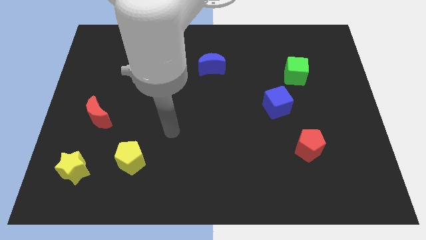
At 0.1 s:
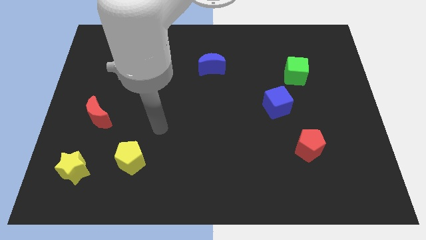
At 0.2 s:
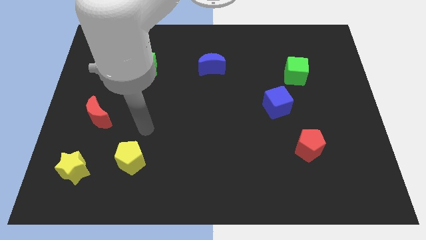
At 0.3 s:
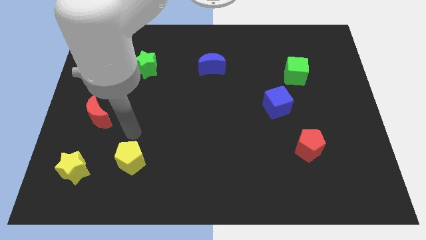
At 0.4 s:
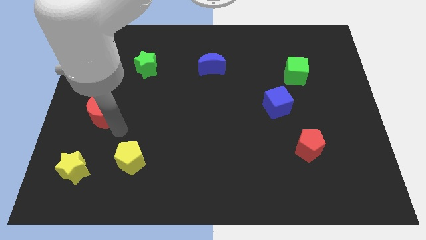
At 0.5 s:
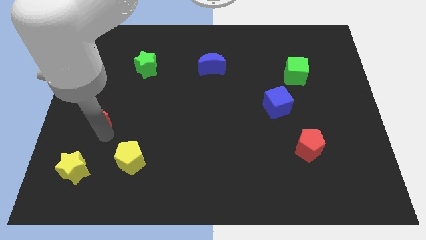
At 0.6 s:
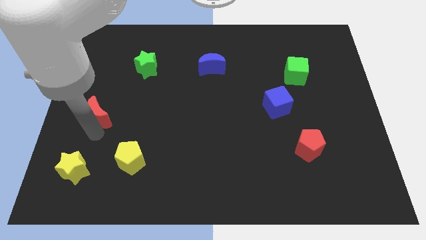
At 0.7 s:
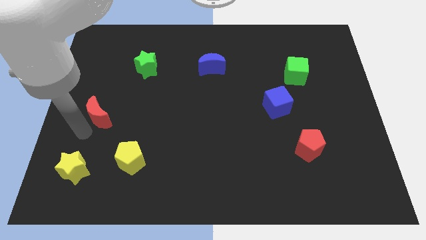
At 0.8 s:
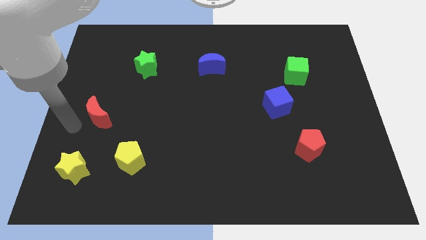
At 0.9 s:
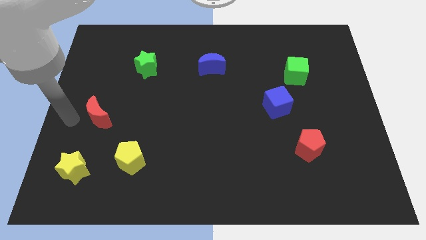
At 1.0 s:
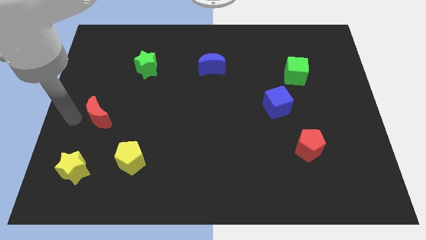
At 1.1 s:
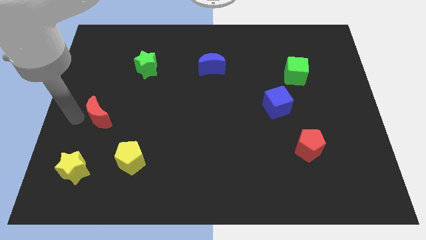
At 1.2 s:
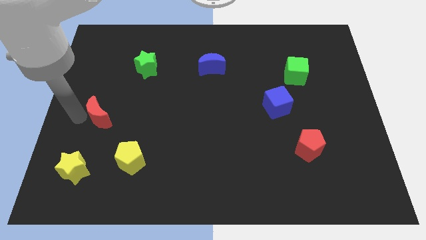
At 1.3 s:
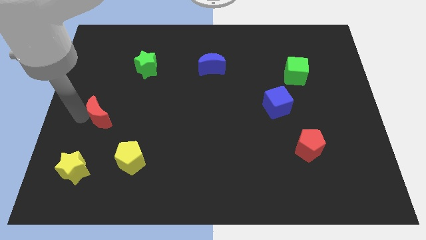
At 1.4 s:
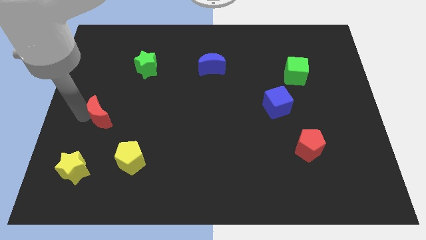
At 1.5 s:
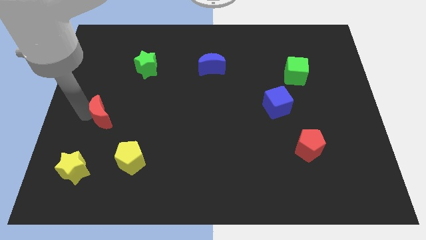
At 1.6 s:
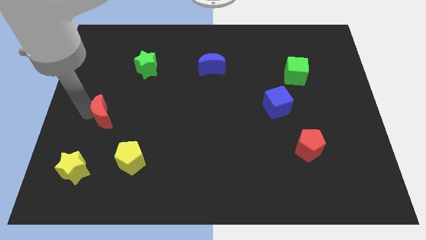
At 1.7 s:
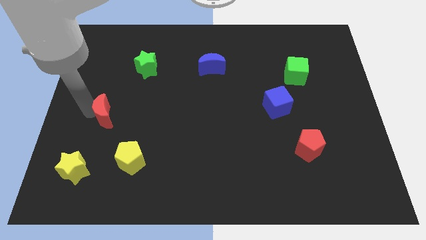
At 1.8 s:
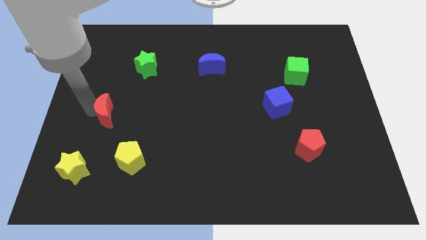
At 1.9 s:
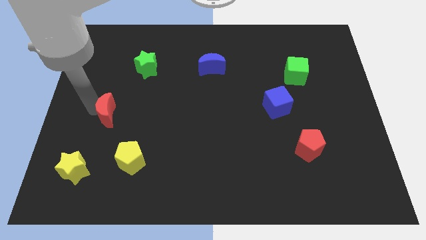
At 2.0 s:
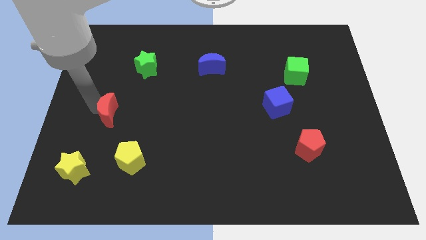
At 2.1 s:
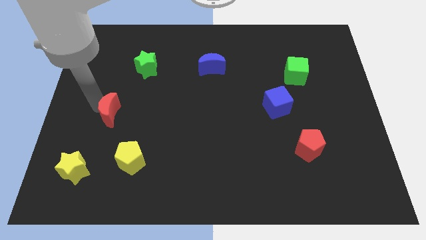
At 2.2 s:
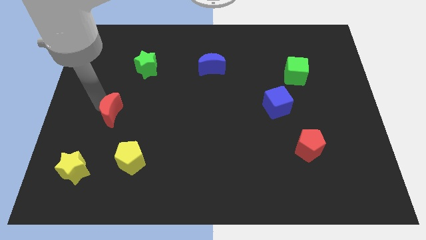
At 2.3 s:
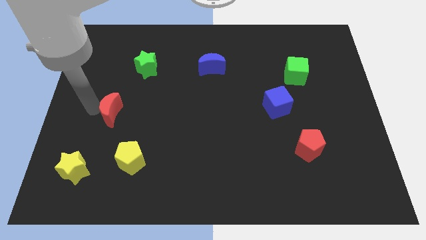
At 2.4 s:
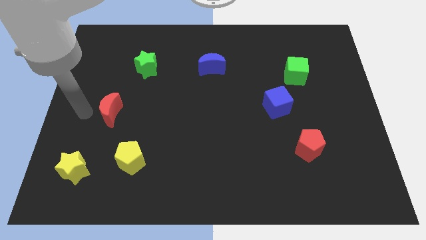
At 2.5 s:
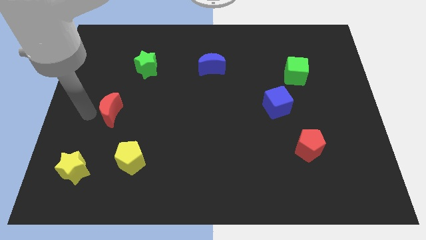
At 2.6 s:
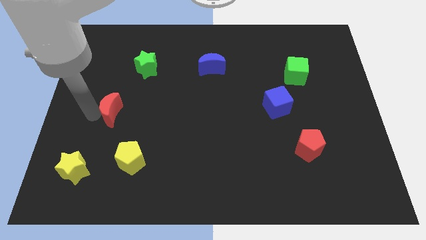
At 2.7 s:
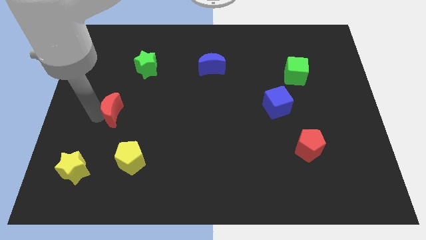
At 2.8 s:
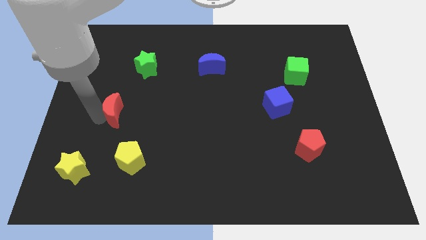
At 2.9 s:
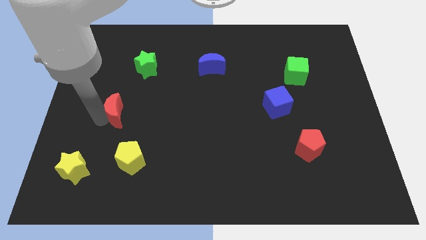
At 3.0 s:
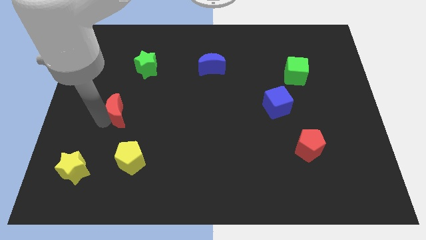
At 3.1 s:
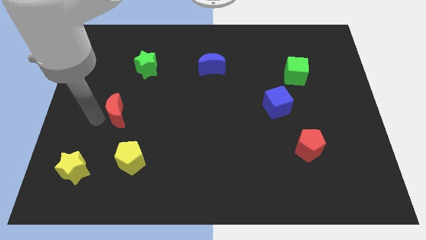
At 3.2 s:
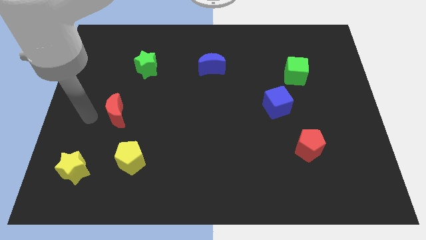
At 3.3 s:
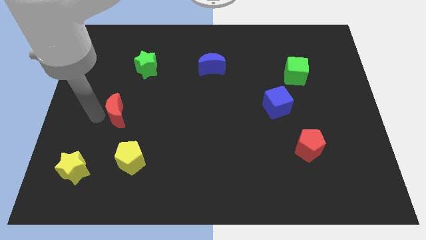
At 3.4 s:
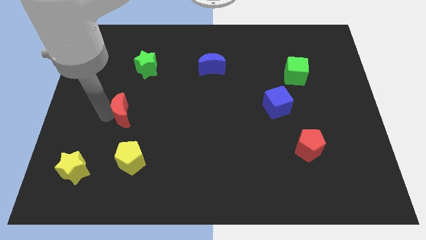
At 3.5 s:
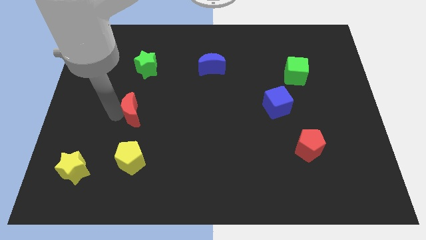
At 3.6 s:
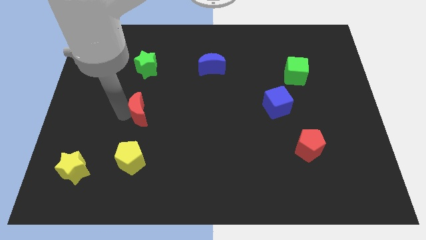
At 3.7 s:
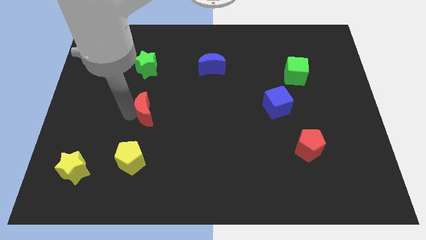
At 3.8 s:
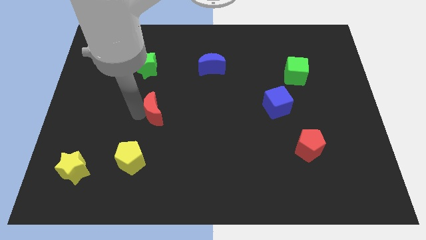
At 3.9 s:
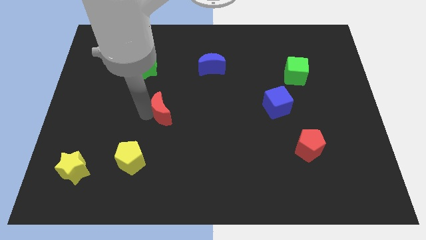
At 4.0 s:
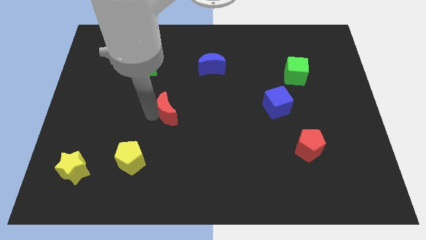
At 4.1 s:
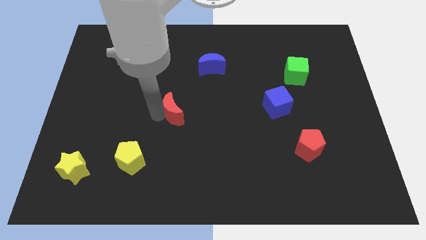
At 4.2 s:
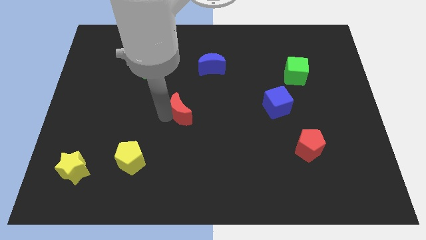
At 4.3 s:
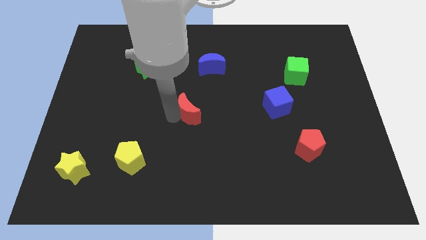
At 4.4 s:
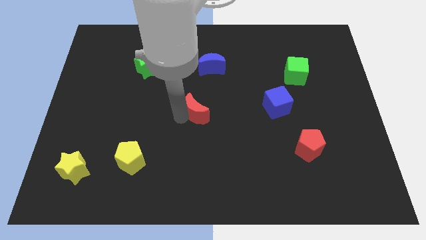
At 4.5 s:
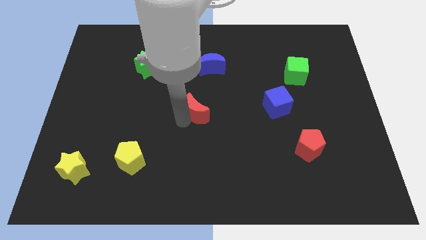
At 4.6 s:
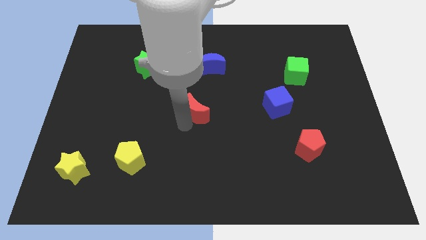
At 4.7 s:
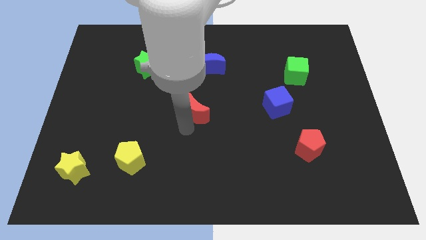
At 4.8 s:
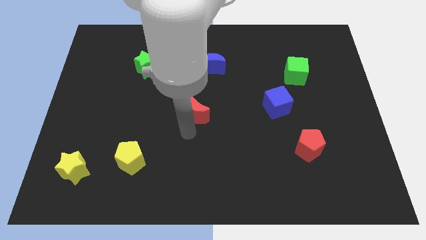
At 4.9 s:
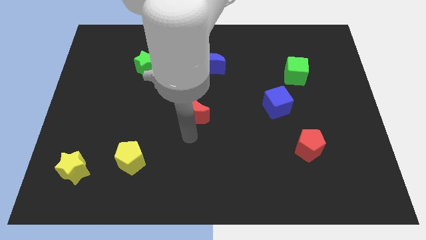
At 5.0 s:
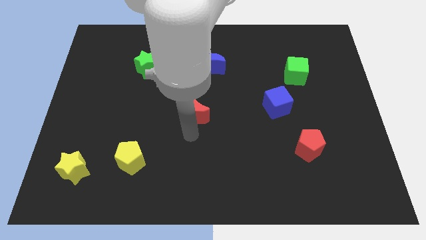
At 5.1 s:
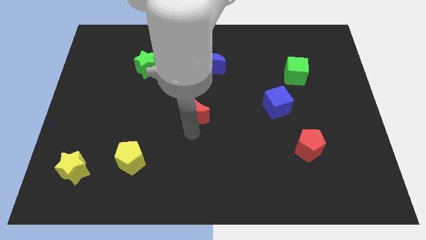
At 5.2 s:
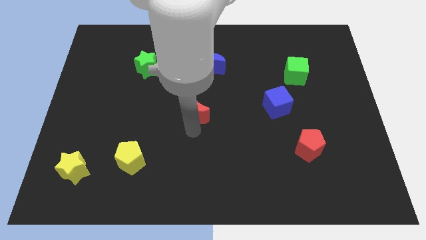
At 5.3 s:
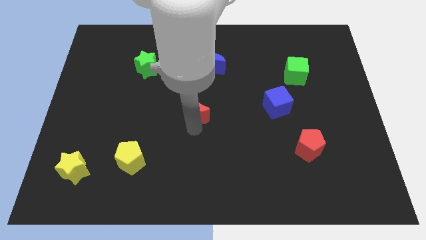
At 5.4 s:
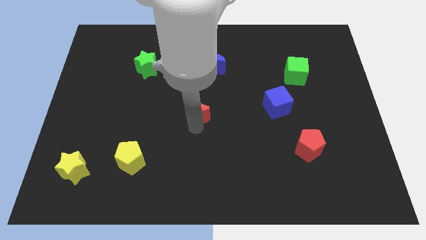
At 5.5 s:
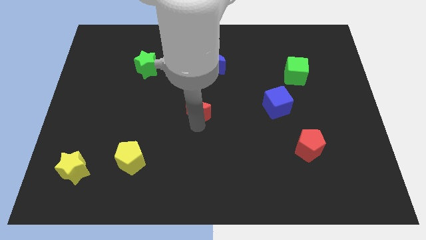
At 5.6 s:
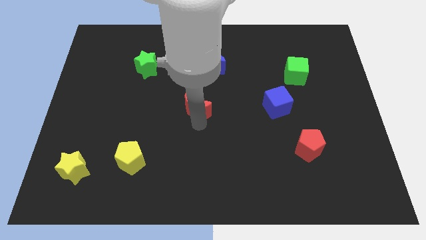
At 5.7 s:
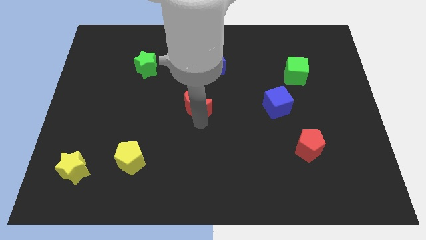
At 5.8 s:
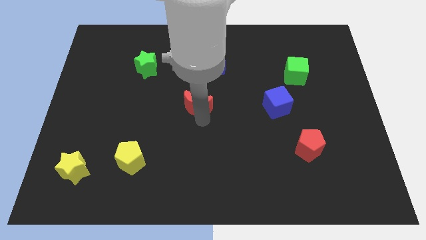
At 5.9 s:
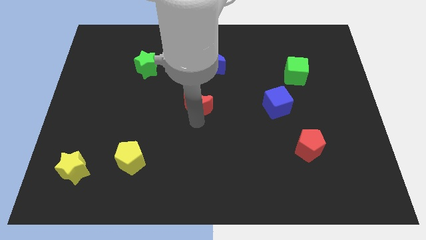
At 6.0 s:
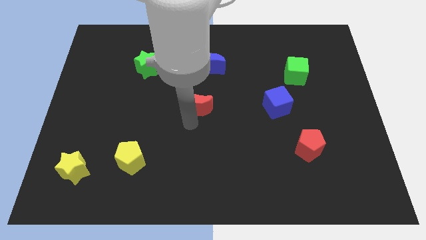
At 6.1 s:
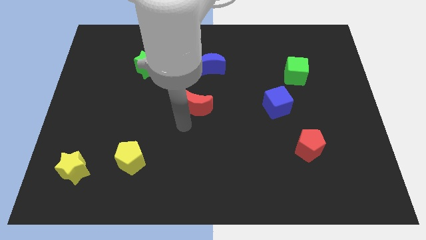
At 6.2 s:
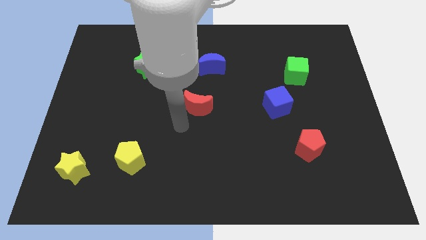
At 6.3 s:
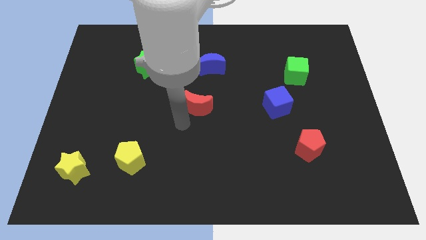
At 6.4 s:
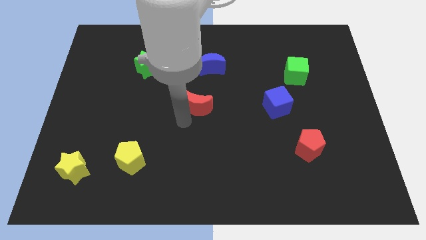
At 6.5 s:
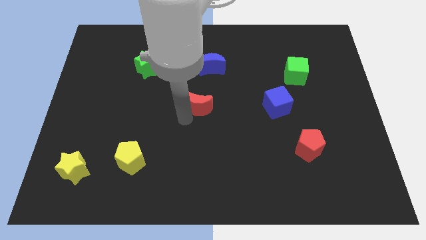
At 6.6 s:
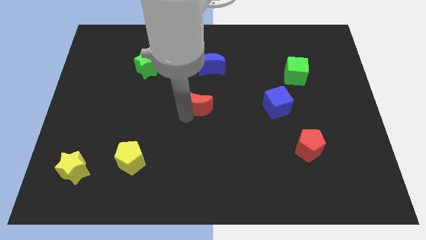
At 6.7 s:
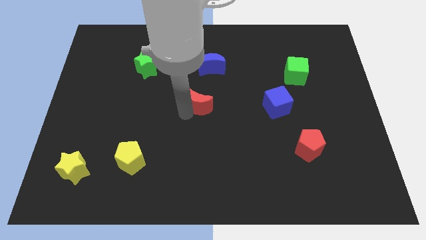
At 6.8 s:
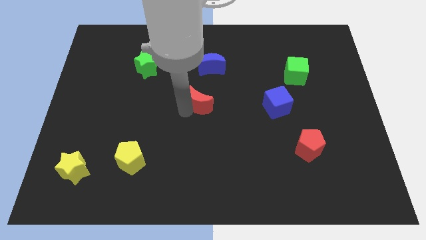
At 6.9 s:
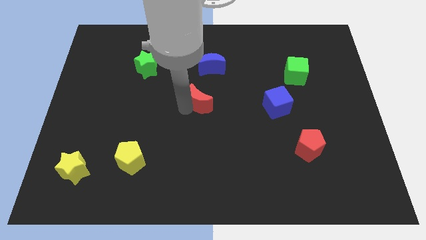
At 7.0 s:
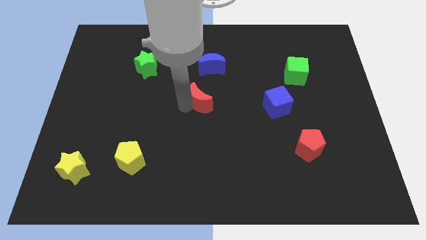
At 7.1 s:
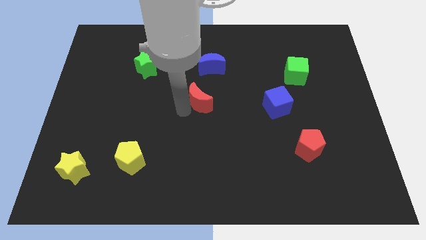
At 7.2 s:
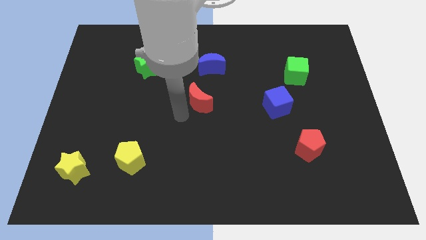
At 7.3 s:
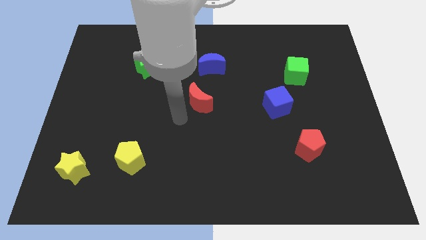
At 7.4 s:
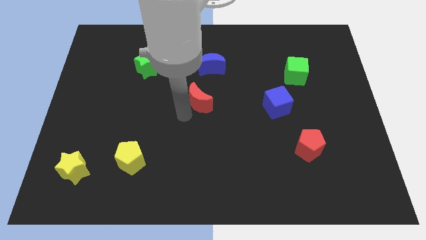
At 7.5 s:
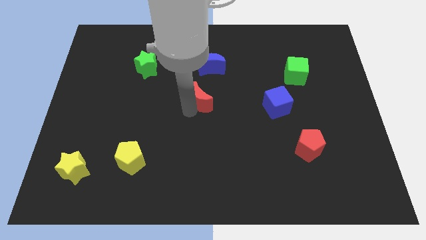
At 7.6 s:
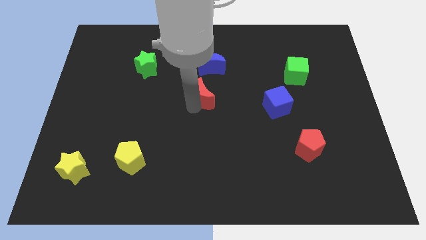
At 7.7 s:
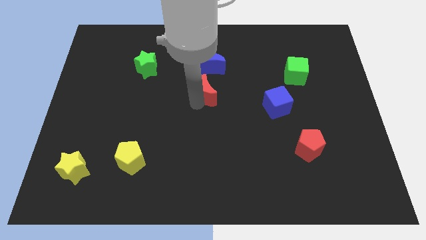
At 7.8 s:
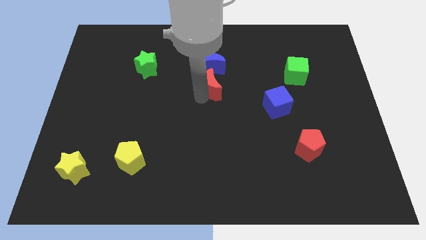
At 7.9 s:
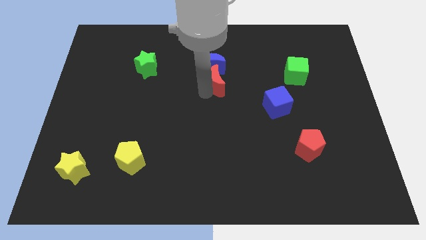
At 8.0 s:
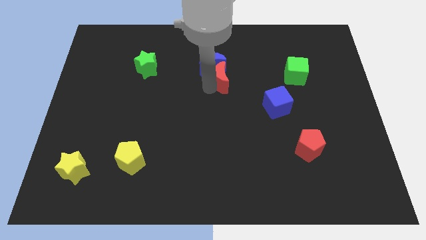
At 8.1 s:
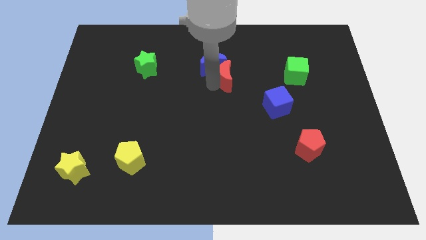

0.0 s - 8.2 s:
move the red moon to the right of the blue moon
